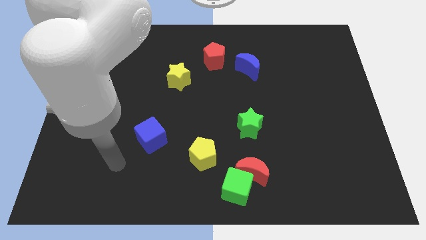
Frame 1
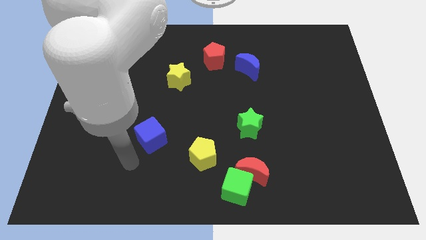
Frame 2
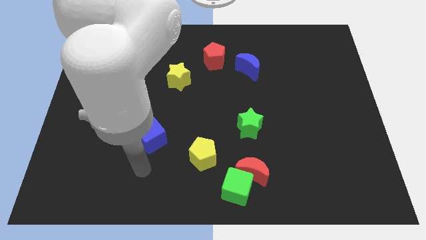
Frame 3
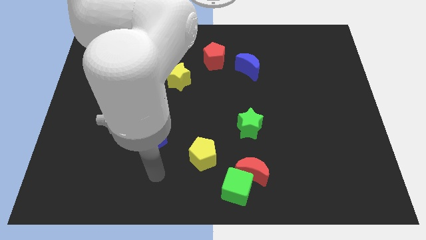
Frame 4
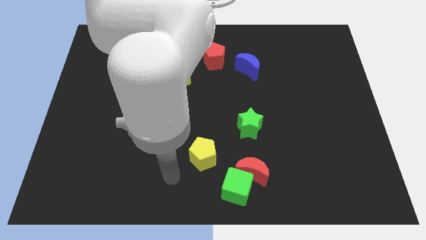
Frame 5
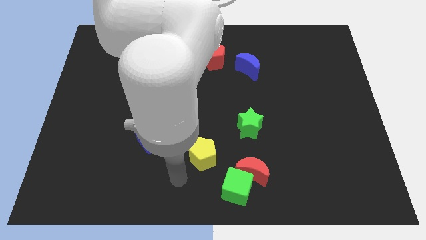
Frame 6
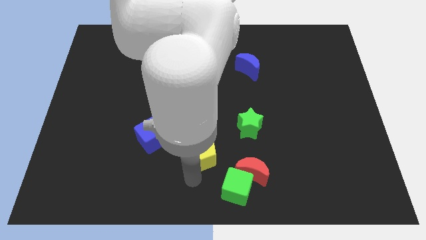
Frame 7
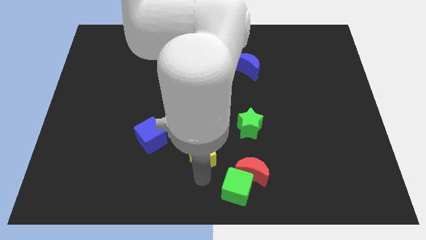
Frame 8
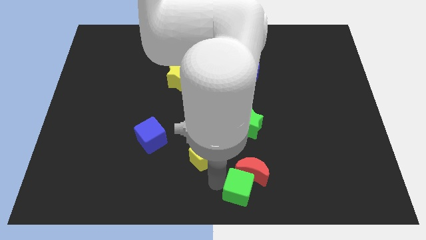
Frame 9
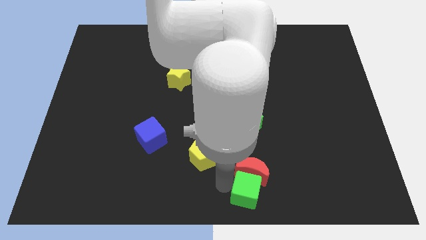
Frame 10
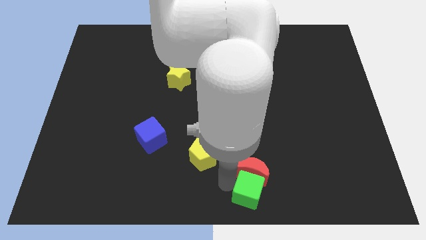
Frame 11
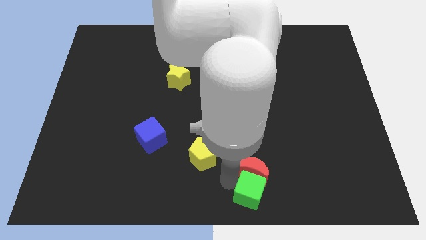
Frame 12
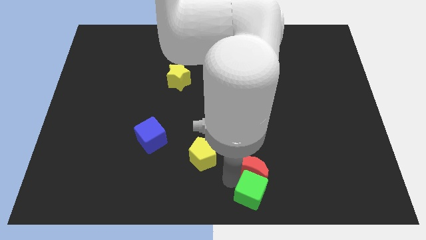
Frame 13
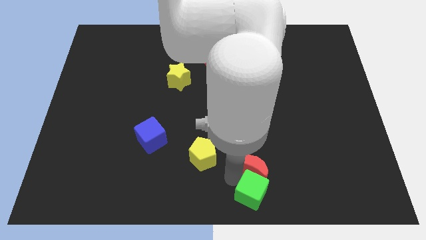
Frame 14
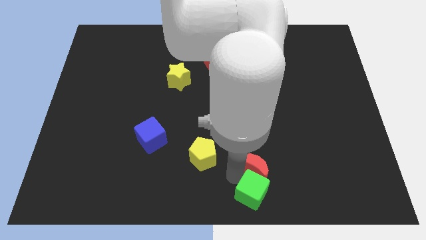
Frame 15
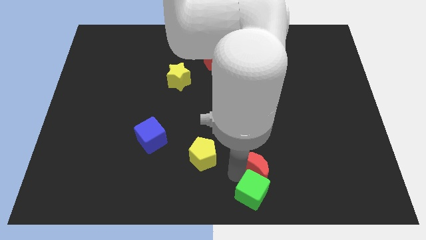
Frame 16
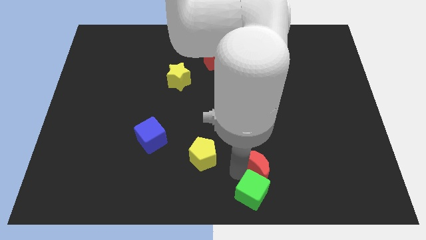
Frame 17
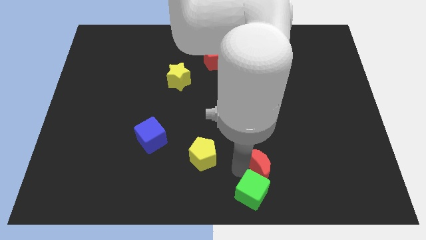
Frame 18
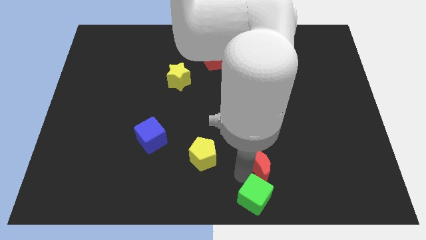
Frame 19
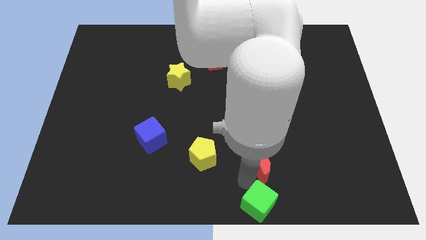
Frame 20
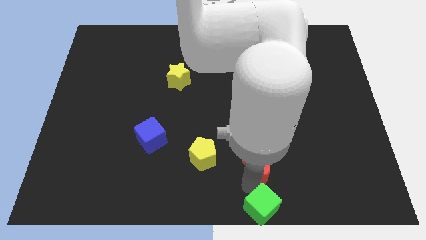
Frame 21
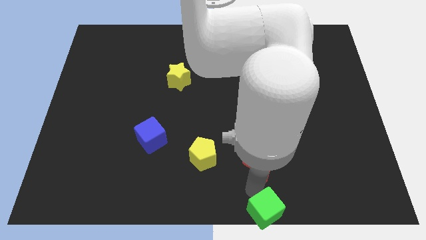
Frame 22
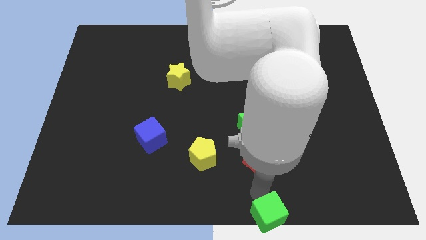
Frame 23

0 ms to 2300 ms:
separate the red moon from the green cube

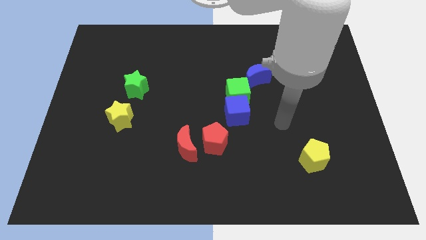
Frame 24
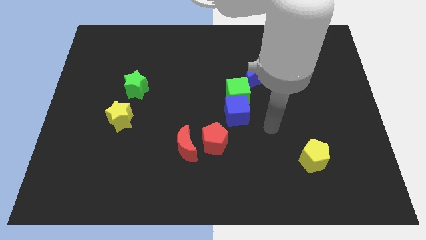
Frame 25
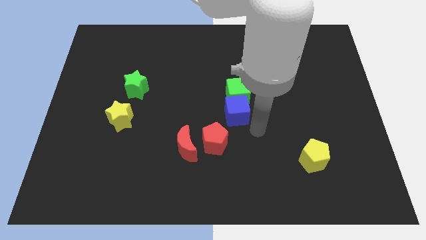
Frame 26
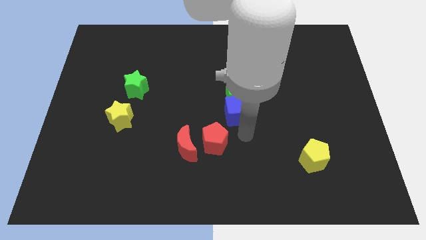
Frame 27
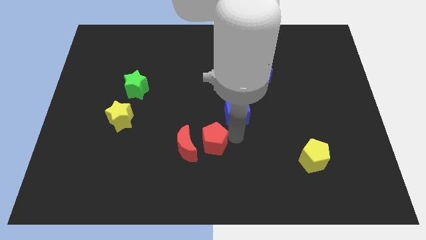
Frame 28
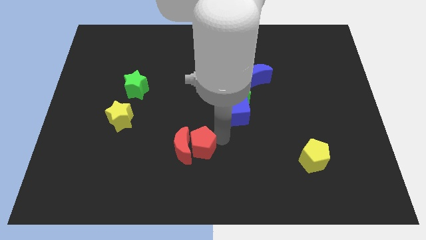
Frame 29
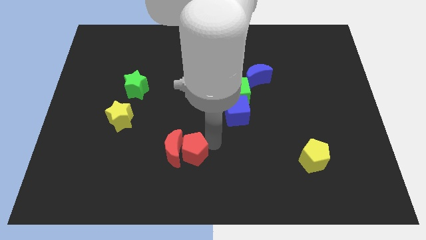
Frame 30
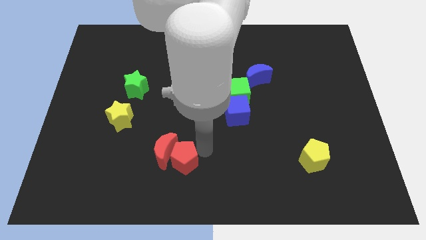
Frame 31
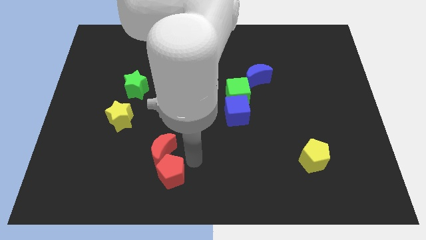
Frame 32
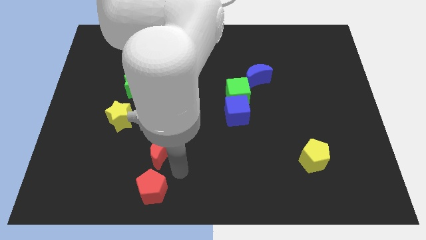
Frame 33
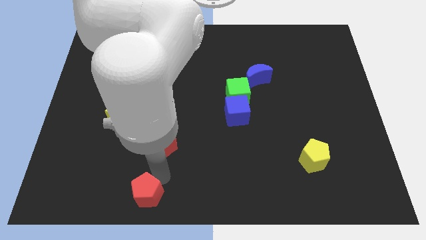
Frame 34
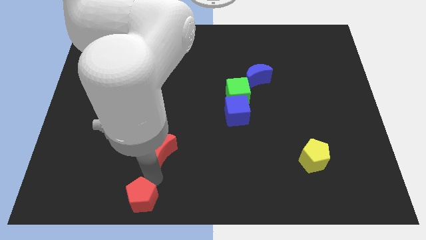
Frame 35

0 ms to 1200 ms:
pull the red moon apart from the red pentagon

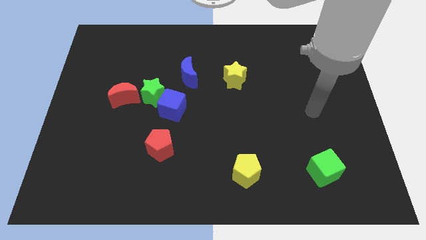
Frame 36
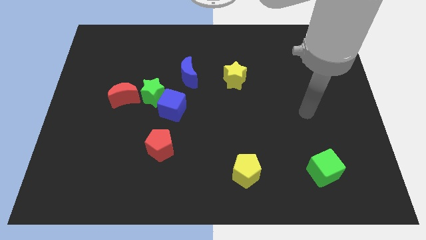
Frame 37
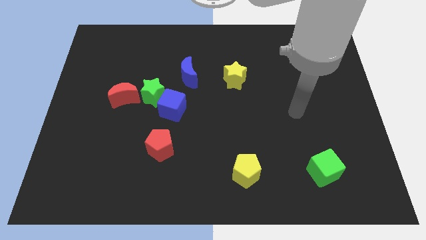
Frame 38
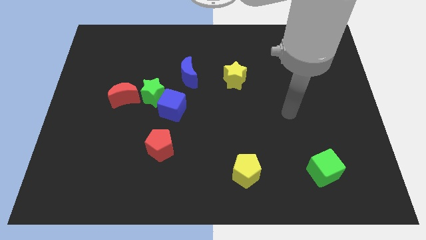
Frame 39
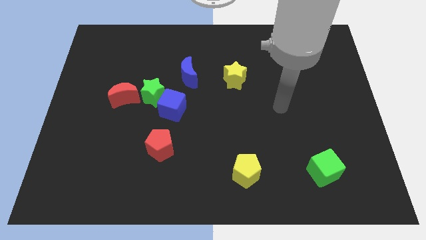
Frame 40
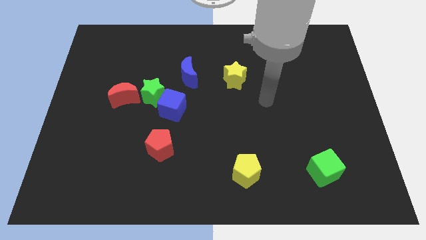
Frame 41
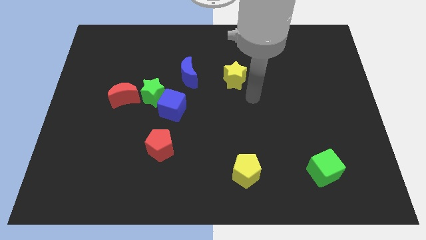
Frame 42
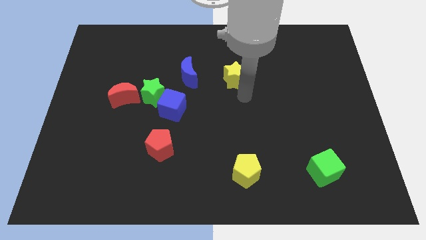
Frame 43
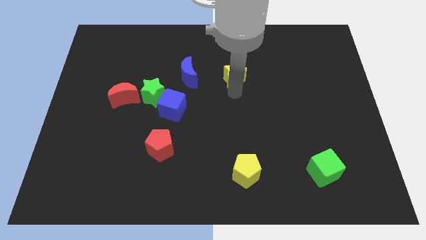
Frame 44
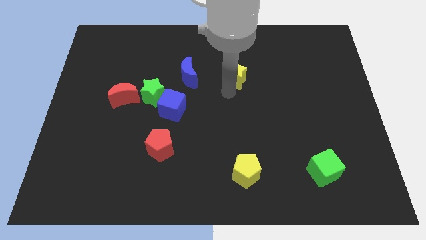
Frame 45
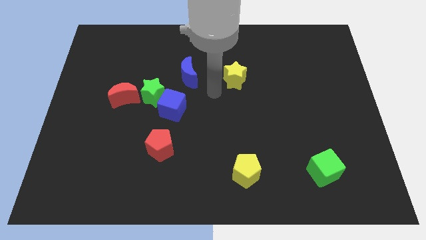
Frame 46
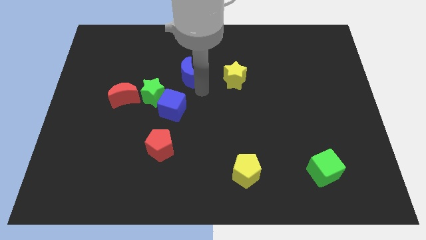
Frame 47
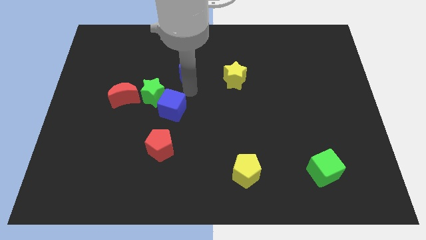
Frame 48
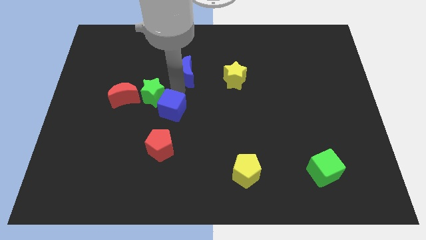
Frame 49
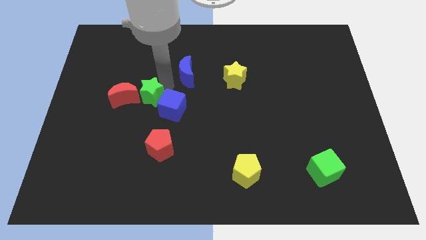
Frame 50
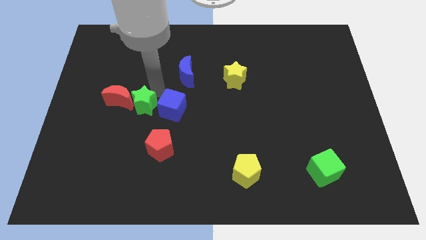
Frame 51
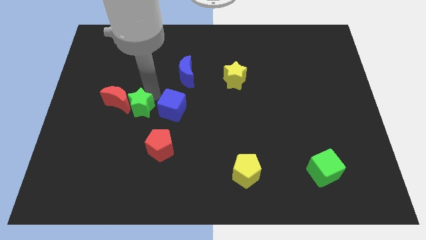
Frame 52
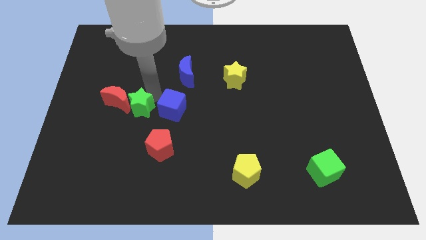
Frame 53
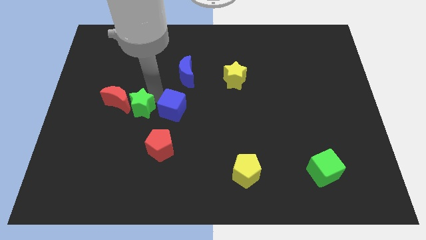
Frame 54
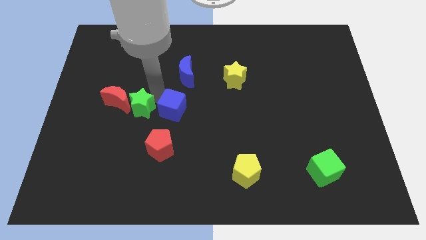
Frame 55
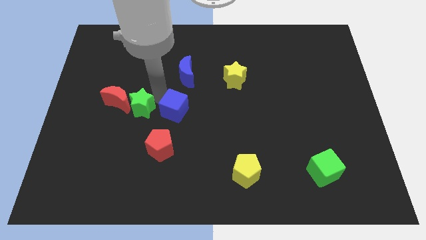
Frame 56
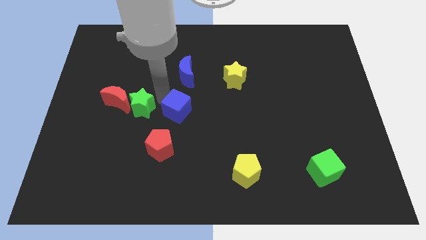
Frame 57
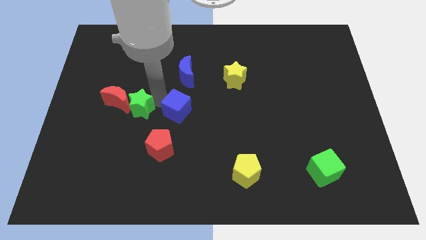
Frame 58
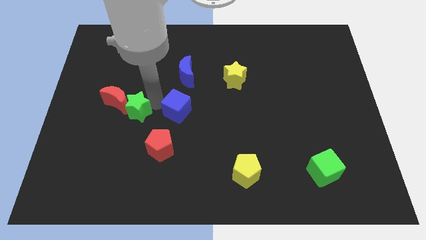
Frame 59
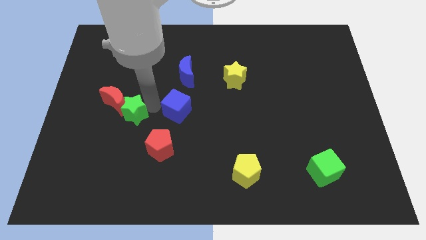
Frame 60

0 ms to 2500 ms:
move the blue cube away from the green star

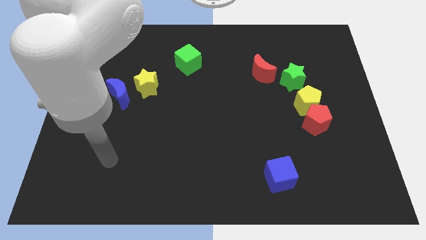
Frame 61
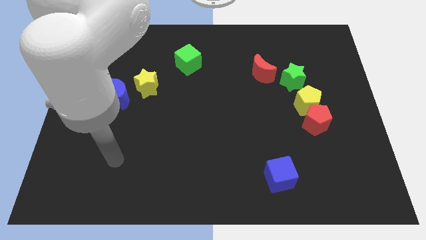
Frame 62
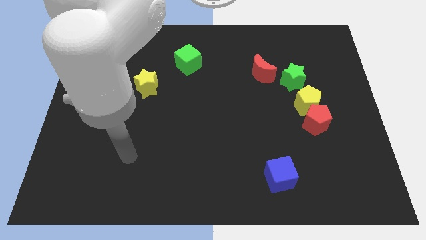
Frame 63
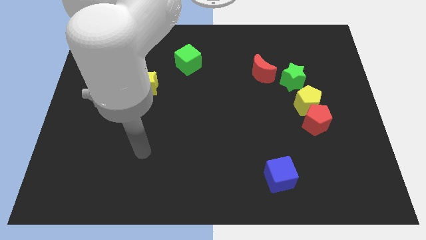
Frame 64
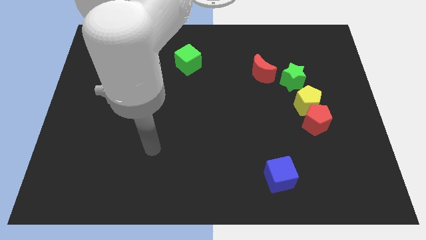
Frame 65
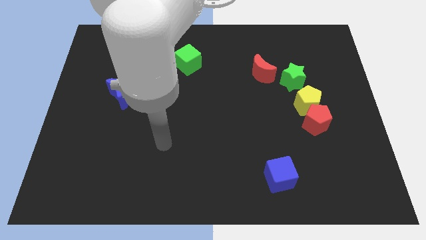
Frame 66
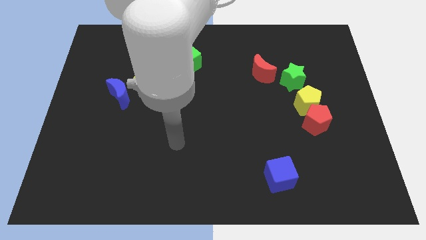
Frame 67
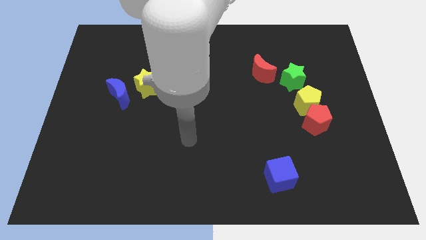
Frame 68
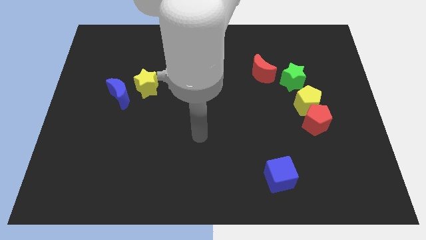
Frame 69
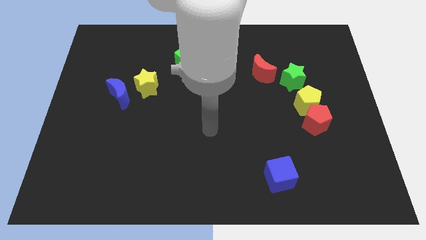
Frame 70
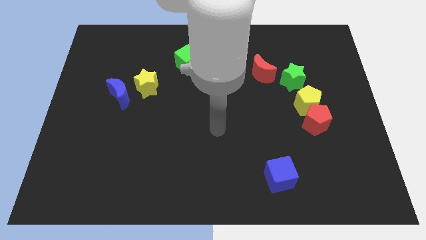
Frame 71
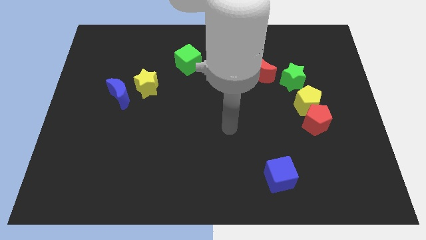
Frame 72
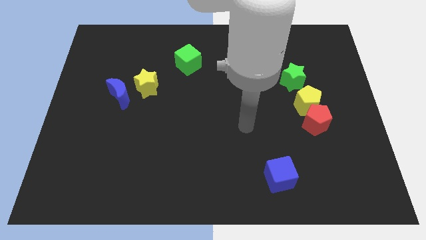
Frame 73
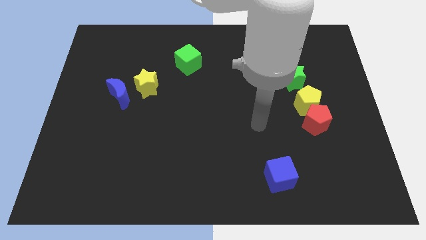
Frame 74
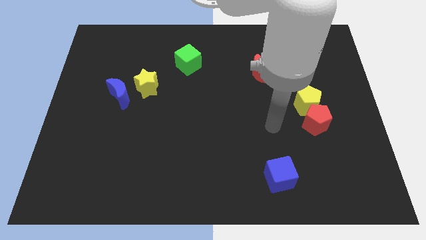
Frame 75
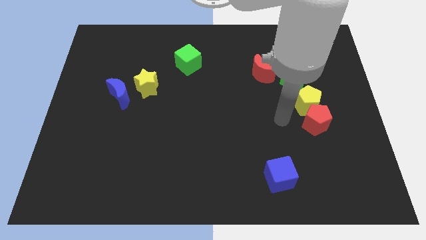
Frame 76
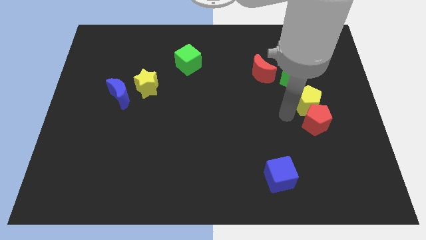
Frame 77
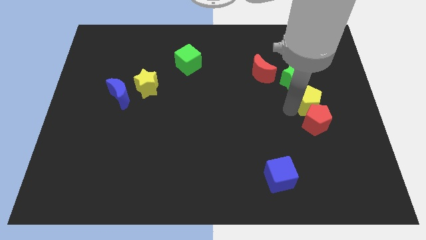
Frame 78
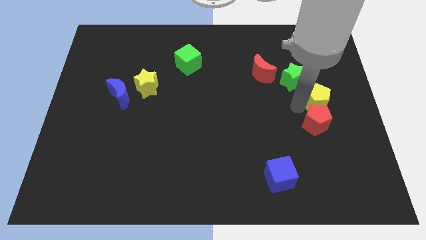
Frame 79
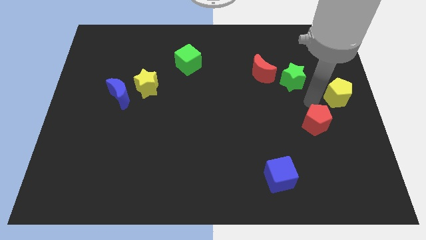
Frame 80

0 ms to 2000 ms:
separate the red pentagon from the yellow pentagon

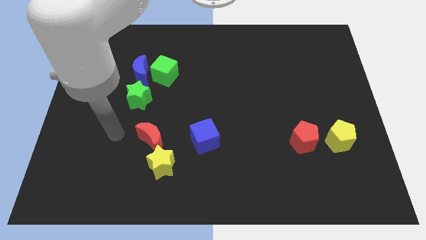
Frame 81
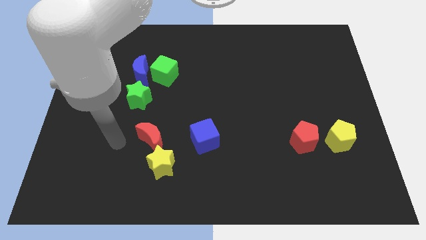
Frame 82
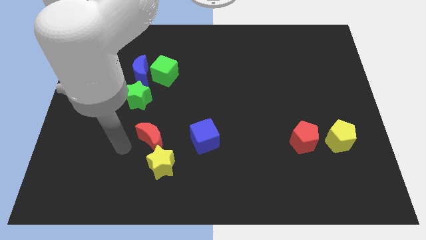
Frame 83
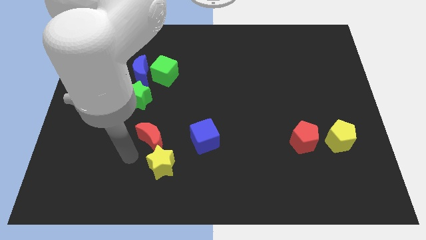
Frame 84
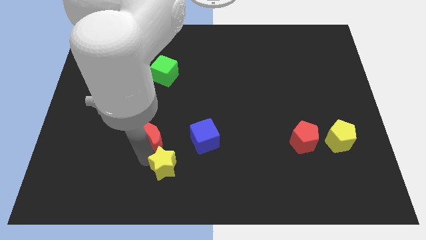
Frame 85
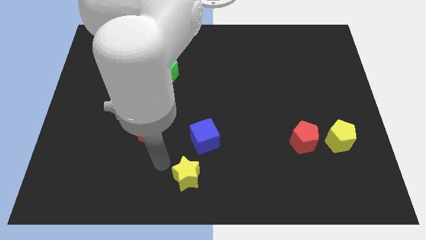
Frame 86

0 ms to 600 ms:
separate the red moon from the yellow star

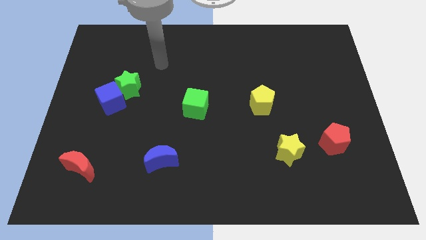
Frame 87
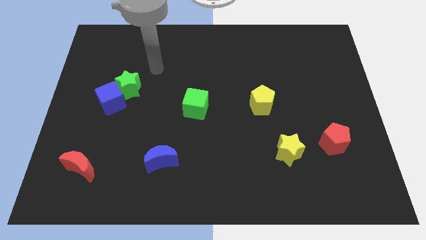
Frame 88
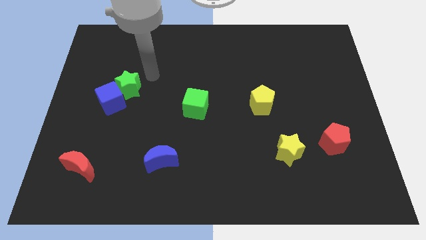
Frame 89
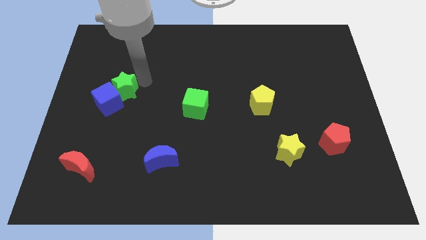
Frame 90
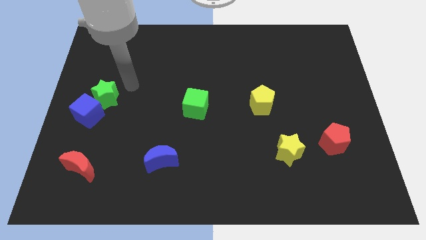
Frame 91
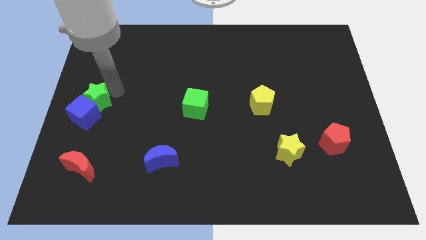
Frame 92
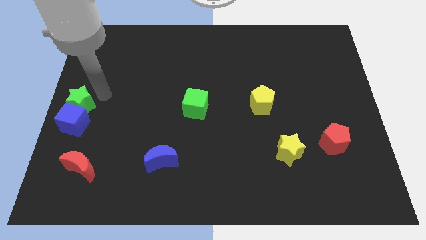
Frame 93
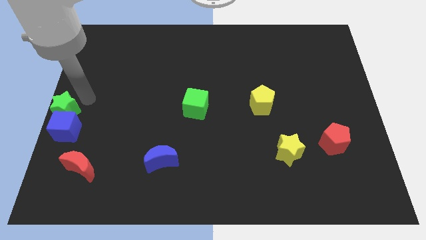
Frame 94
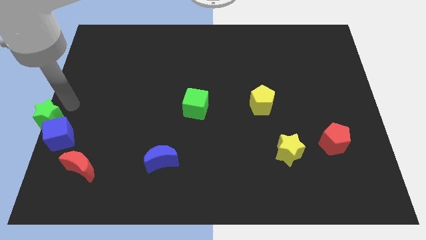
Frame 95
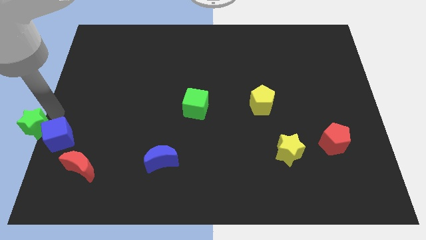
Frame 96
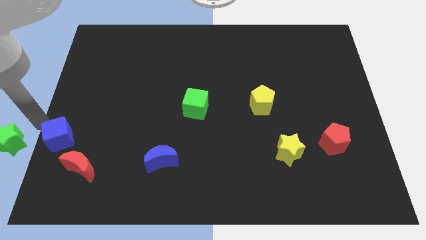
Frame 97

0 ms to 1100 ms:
pull the blue cube apart from the green star
